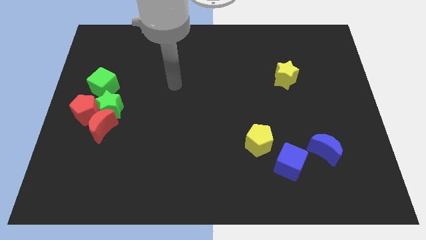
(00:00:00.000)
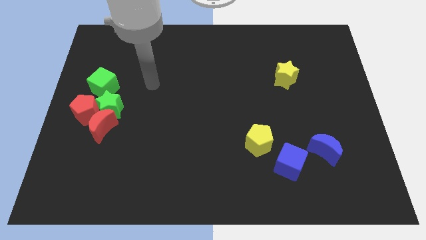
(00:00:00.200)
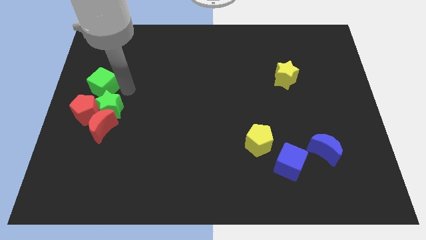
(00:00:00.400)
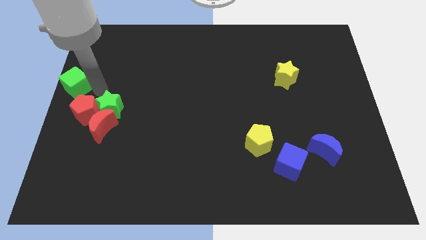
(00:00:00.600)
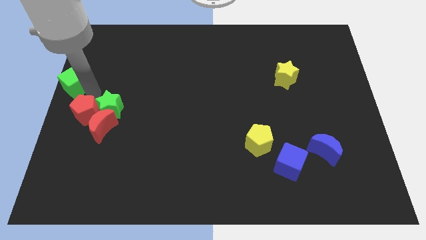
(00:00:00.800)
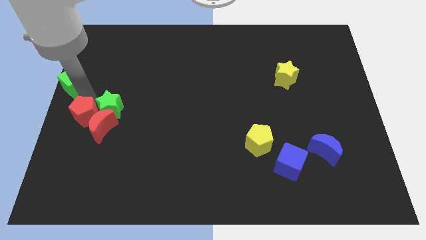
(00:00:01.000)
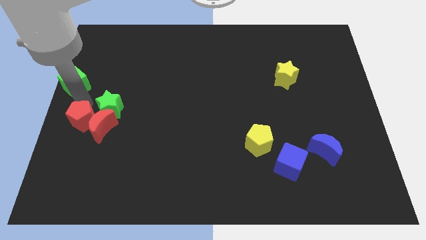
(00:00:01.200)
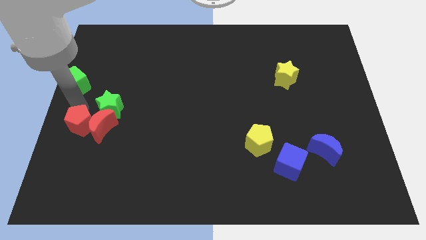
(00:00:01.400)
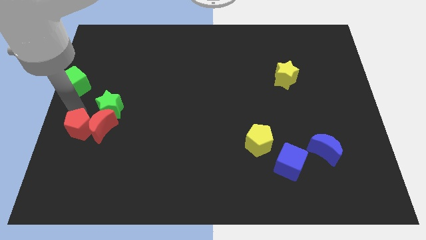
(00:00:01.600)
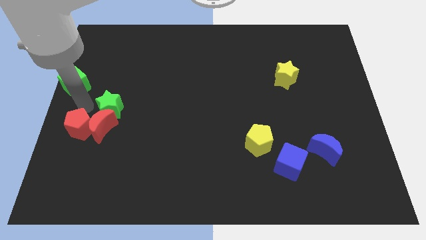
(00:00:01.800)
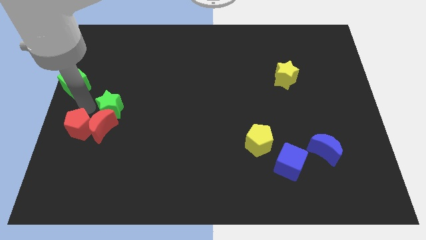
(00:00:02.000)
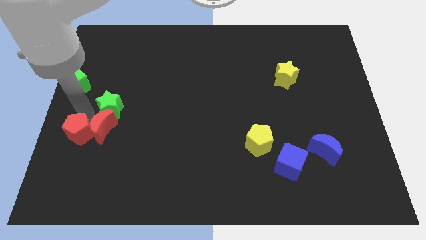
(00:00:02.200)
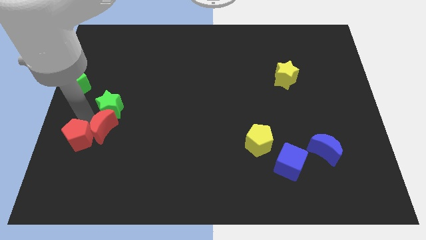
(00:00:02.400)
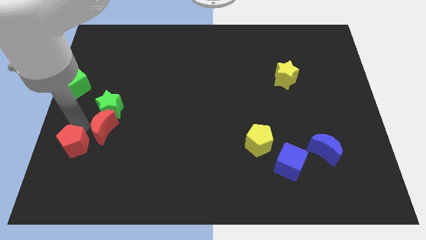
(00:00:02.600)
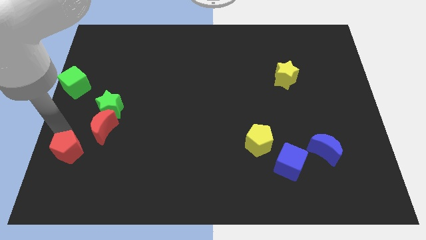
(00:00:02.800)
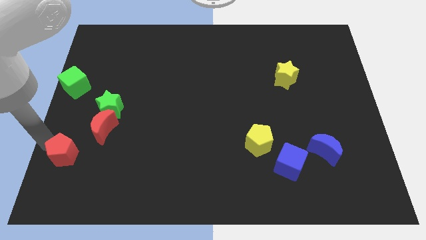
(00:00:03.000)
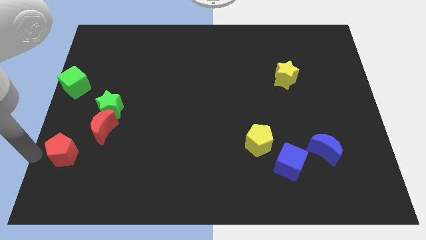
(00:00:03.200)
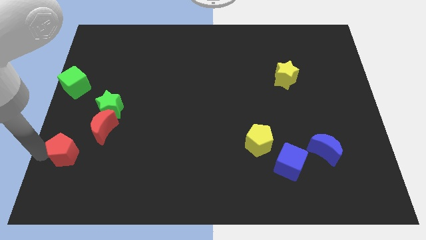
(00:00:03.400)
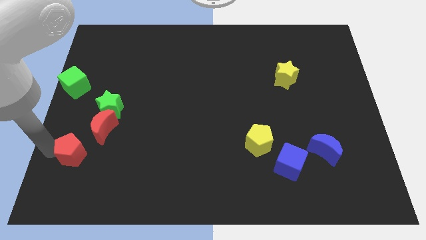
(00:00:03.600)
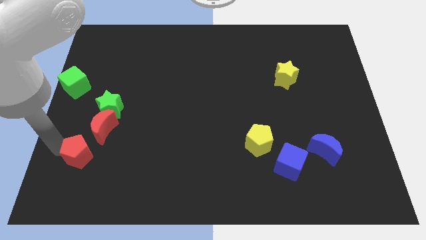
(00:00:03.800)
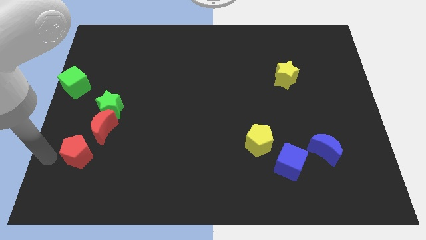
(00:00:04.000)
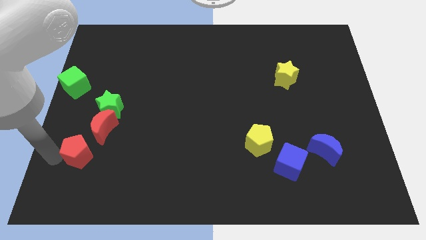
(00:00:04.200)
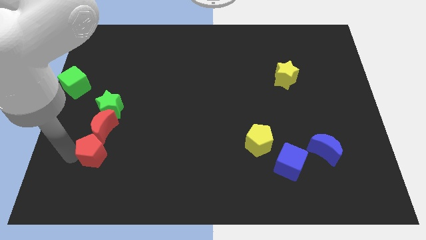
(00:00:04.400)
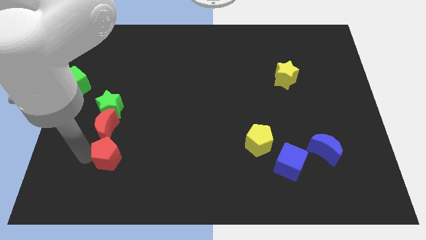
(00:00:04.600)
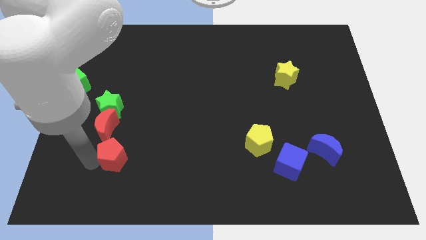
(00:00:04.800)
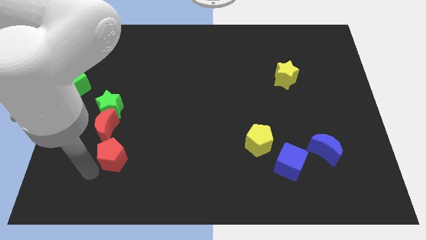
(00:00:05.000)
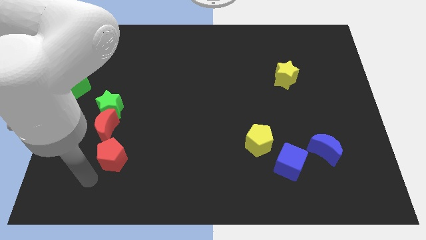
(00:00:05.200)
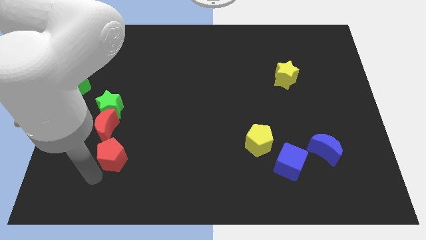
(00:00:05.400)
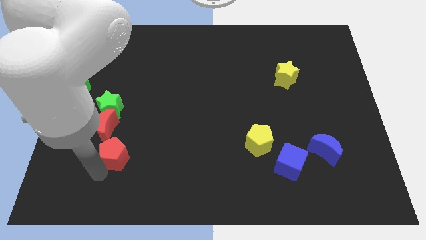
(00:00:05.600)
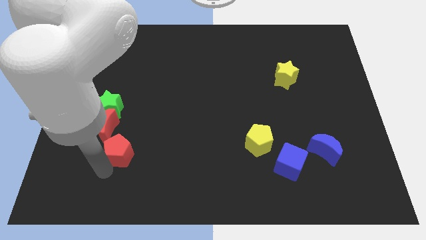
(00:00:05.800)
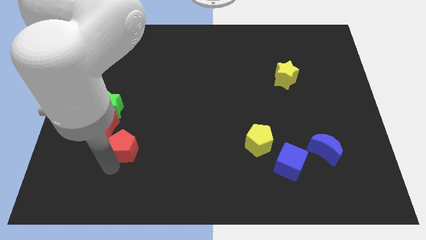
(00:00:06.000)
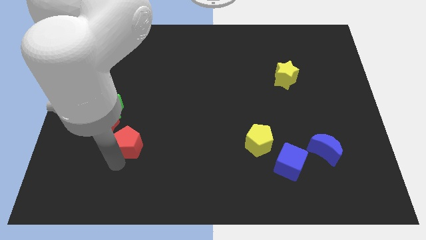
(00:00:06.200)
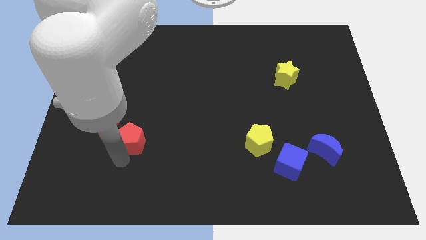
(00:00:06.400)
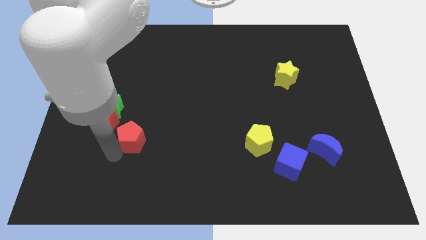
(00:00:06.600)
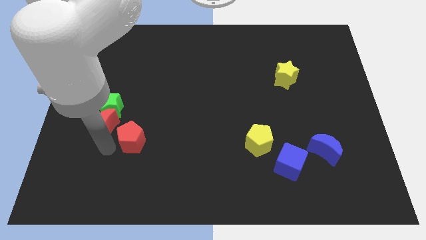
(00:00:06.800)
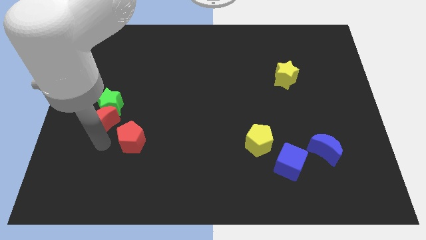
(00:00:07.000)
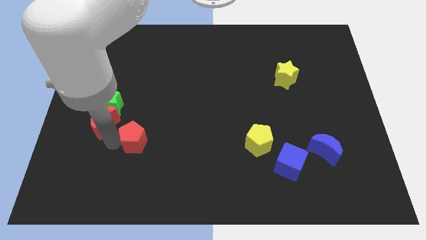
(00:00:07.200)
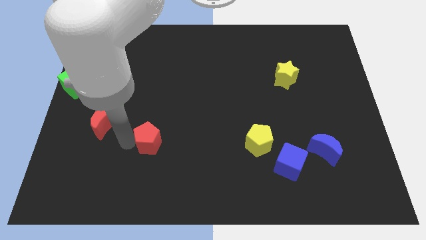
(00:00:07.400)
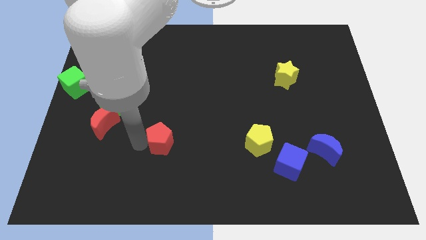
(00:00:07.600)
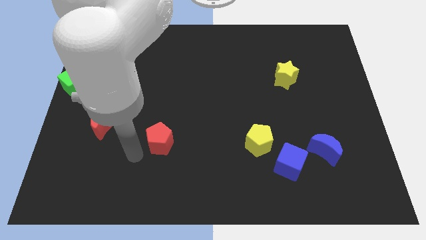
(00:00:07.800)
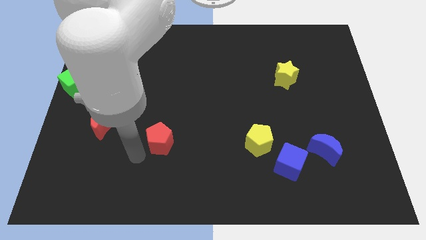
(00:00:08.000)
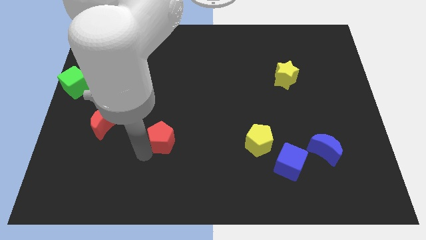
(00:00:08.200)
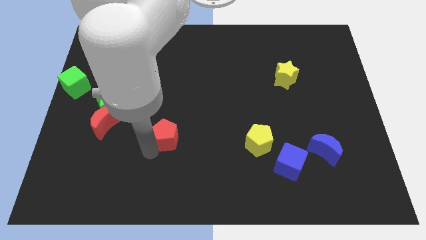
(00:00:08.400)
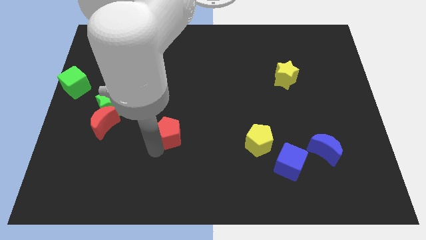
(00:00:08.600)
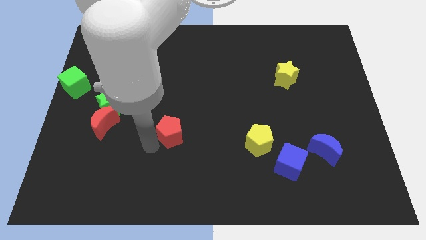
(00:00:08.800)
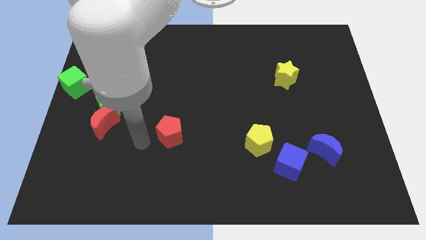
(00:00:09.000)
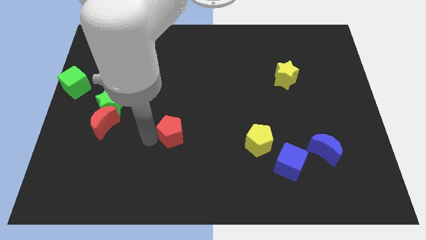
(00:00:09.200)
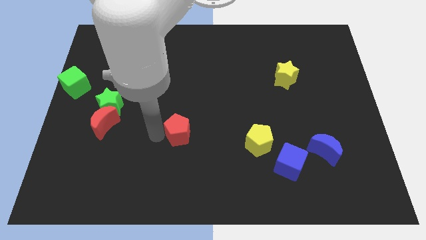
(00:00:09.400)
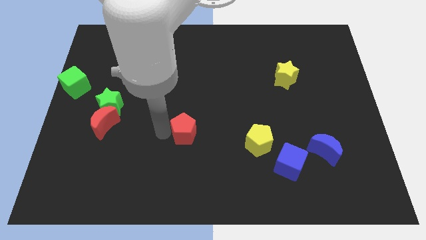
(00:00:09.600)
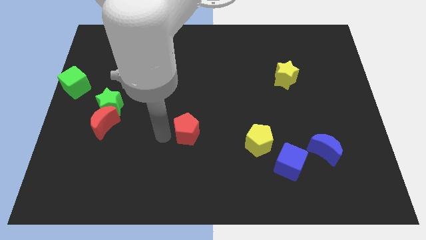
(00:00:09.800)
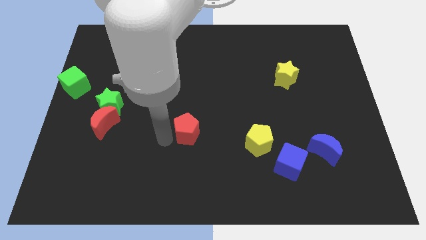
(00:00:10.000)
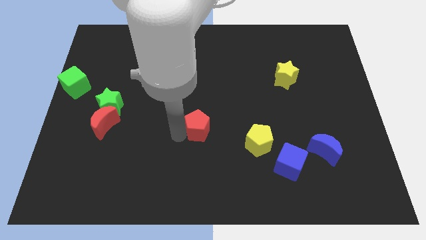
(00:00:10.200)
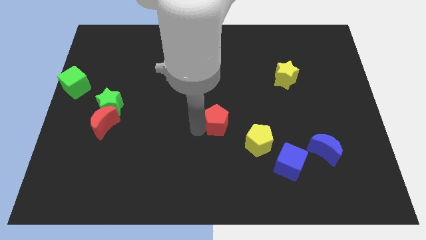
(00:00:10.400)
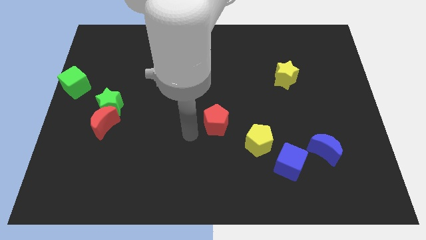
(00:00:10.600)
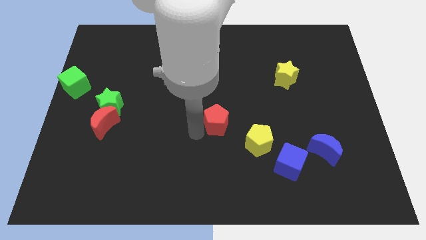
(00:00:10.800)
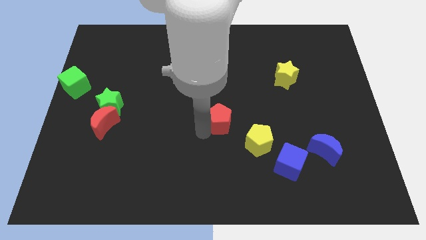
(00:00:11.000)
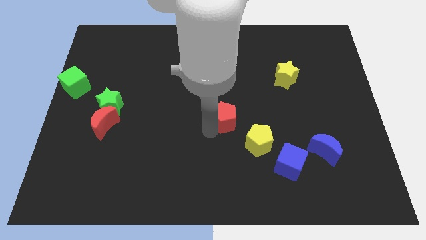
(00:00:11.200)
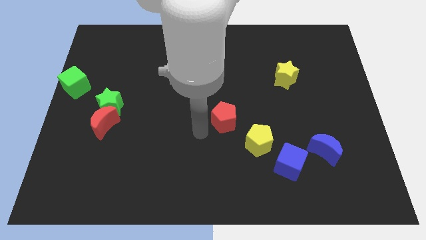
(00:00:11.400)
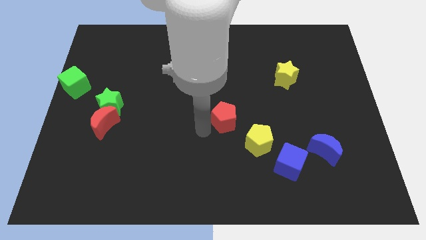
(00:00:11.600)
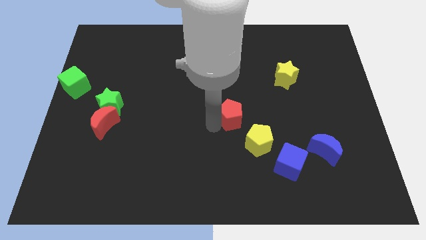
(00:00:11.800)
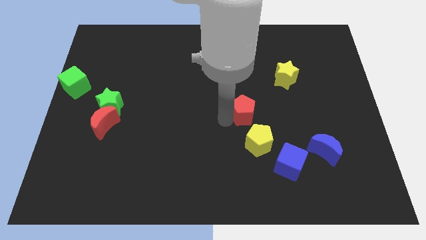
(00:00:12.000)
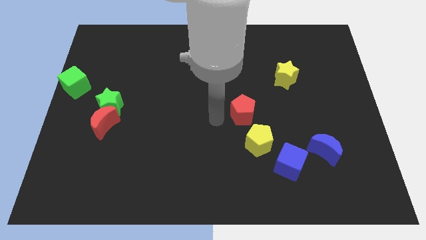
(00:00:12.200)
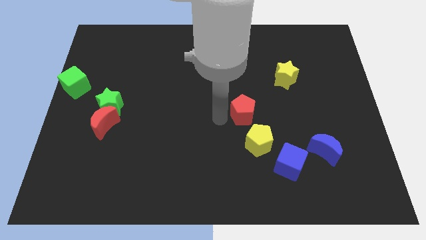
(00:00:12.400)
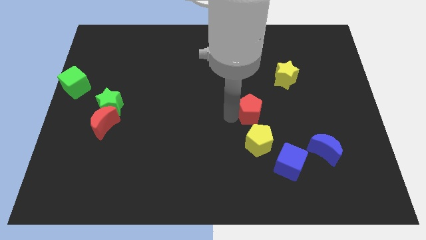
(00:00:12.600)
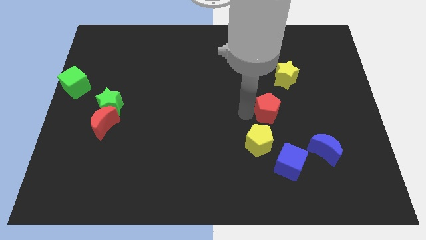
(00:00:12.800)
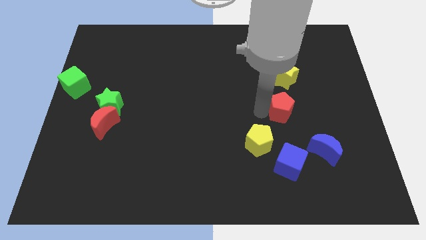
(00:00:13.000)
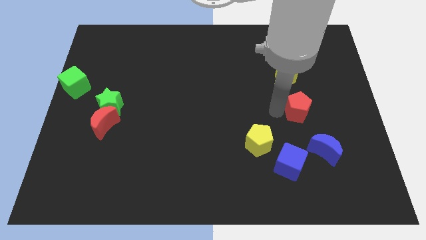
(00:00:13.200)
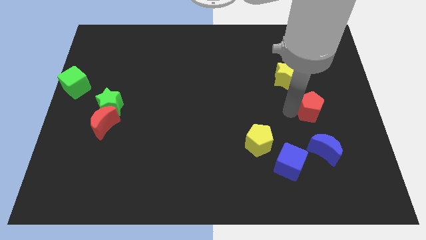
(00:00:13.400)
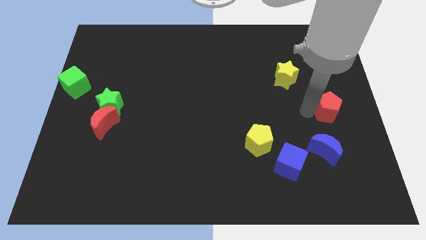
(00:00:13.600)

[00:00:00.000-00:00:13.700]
move the red pentagon to the center right
